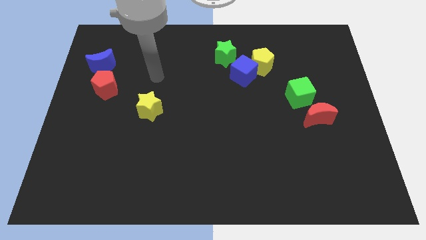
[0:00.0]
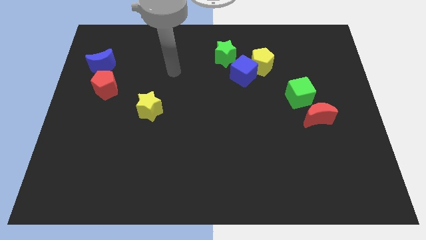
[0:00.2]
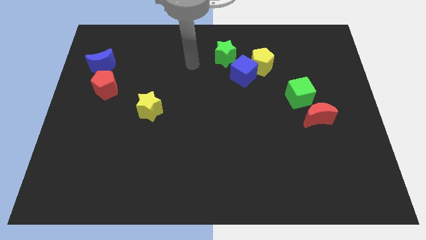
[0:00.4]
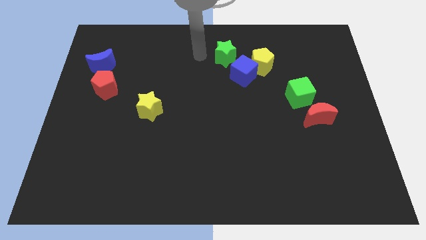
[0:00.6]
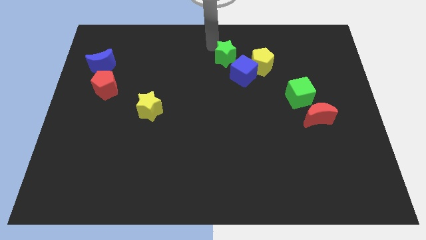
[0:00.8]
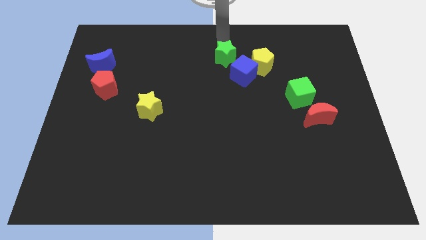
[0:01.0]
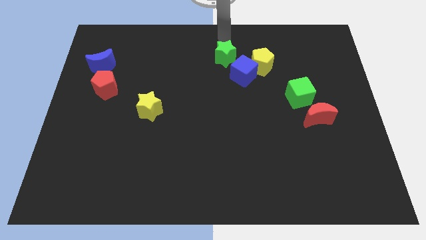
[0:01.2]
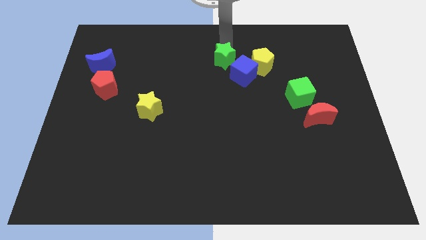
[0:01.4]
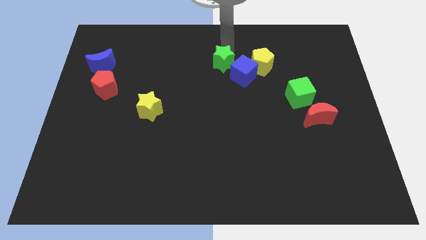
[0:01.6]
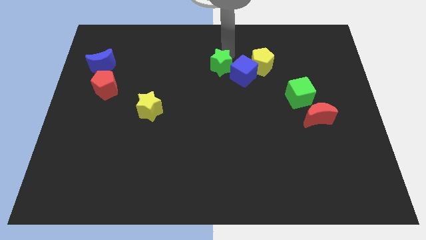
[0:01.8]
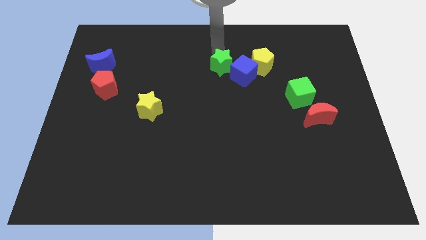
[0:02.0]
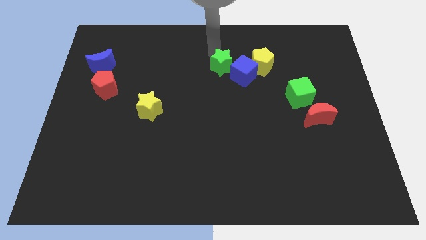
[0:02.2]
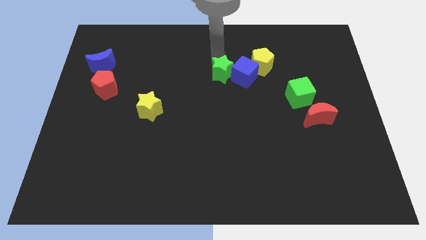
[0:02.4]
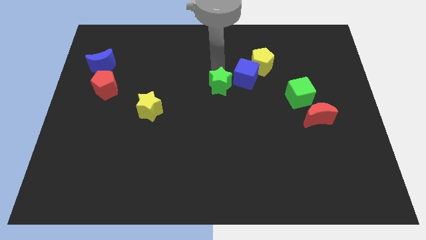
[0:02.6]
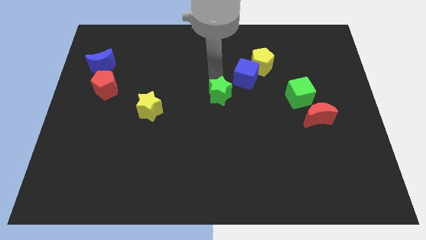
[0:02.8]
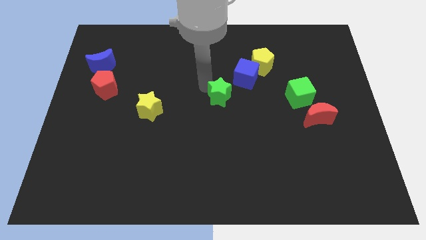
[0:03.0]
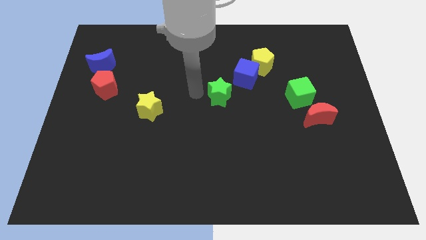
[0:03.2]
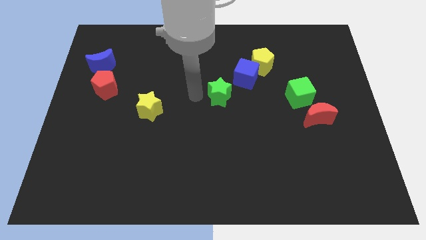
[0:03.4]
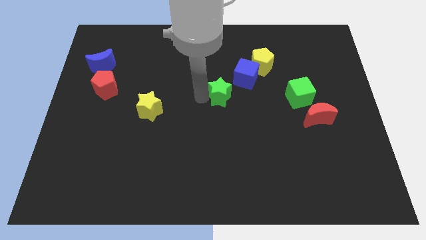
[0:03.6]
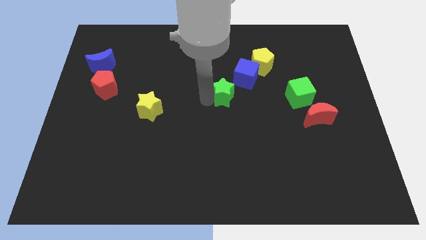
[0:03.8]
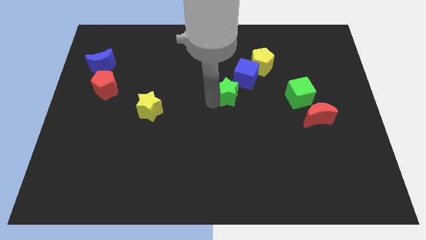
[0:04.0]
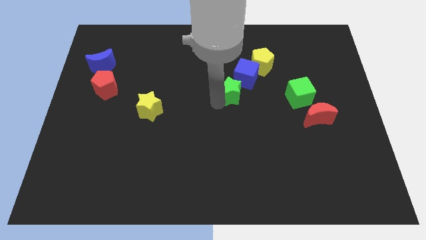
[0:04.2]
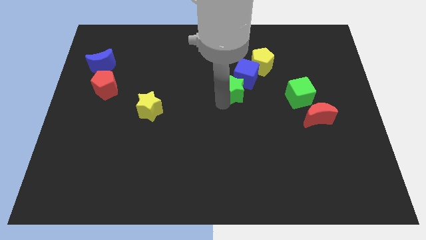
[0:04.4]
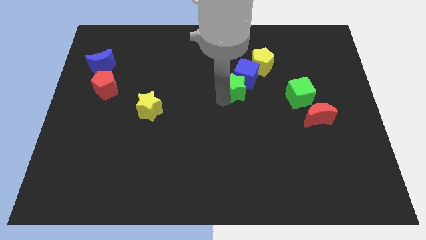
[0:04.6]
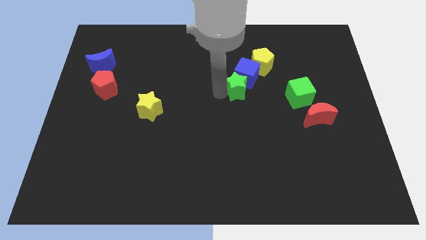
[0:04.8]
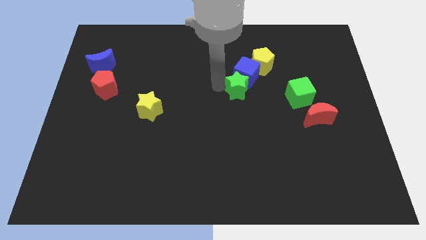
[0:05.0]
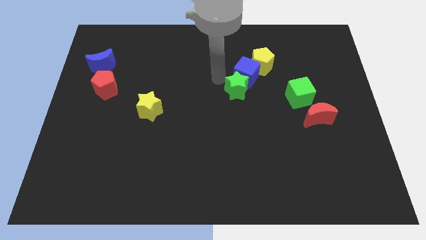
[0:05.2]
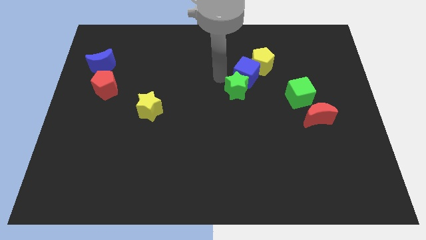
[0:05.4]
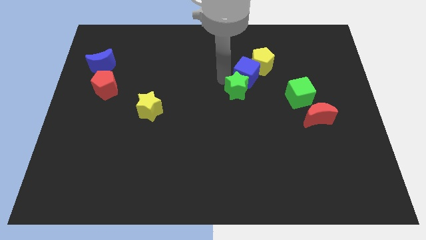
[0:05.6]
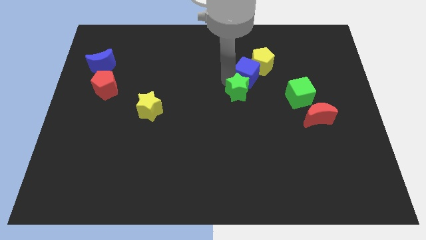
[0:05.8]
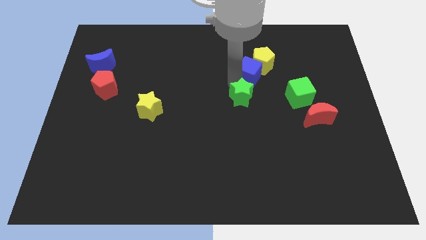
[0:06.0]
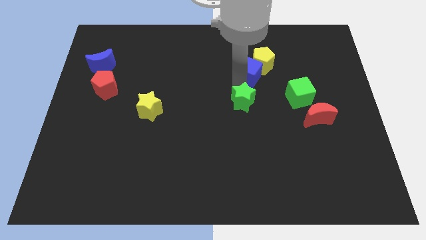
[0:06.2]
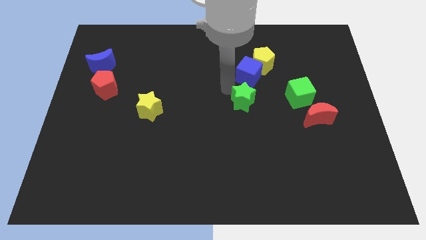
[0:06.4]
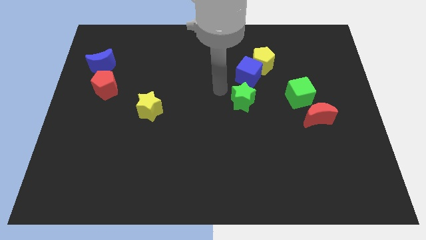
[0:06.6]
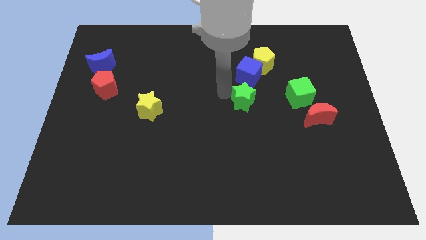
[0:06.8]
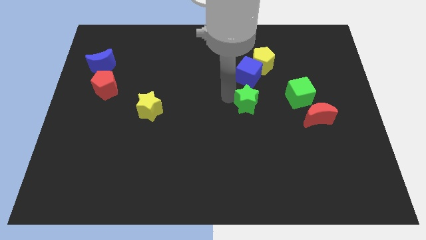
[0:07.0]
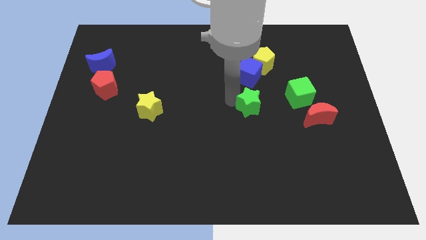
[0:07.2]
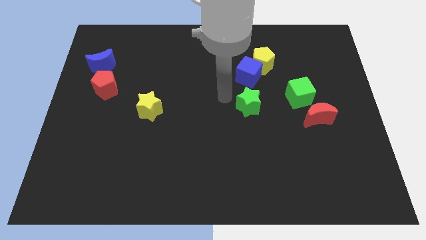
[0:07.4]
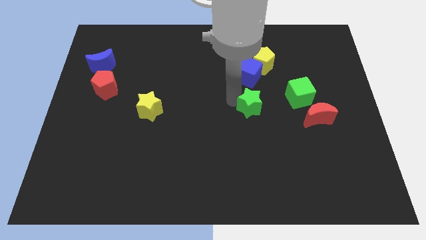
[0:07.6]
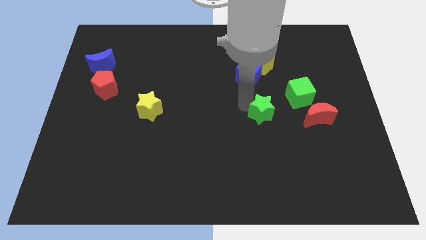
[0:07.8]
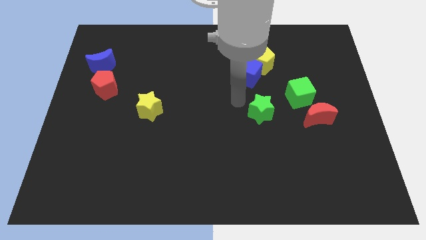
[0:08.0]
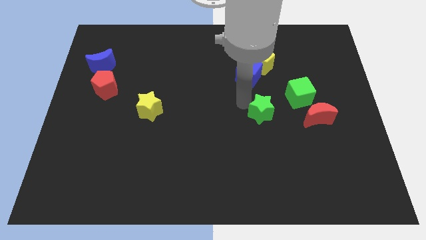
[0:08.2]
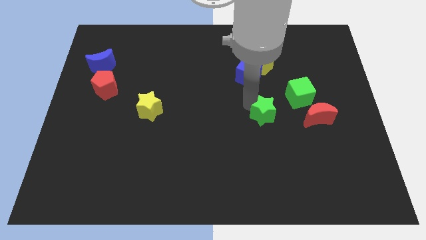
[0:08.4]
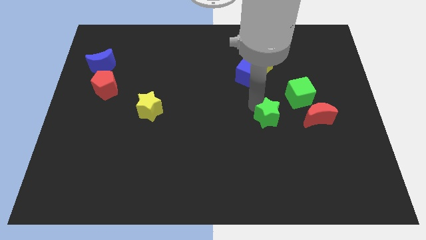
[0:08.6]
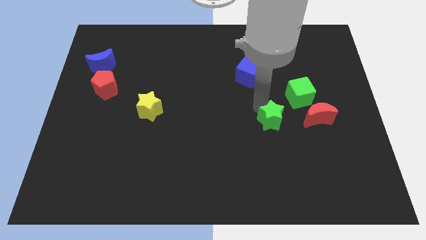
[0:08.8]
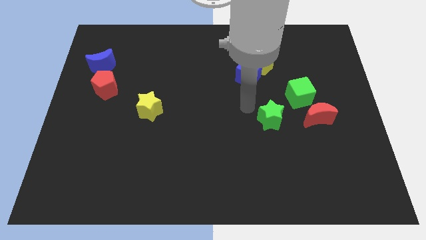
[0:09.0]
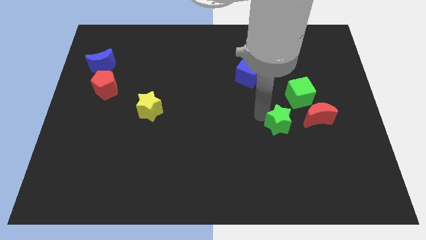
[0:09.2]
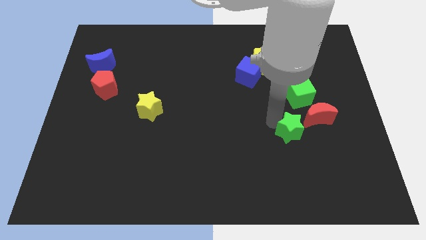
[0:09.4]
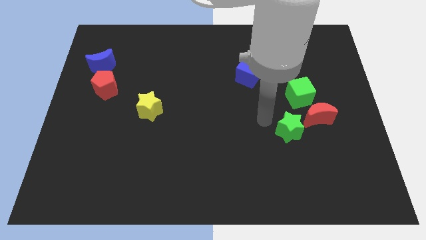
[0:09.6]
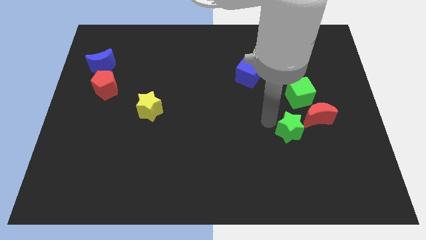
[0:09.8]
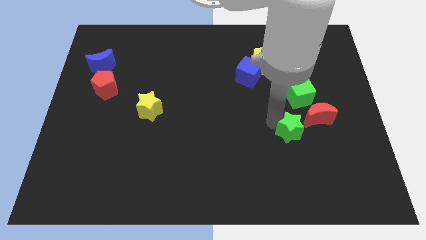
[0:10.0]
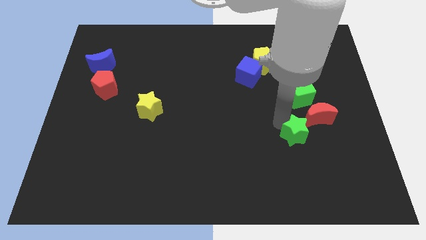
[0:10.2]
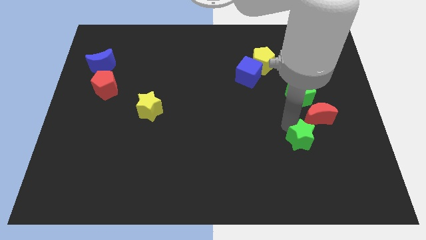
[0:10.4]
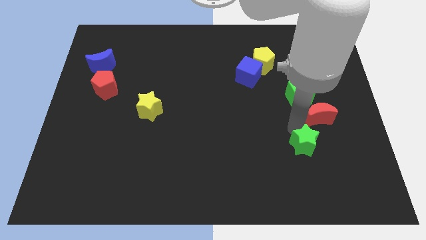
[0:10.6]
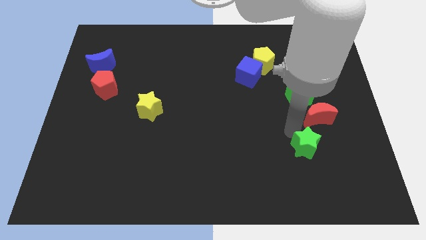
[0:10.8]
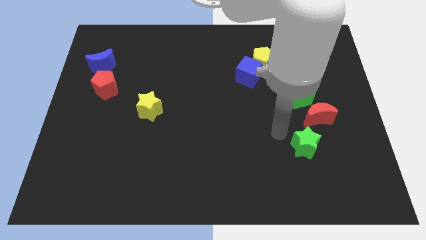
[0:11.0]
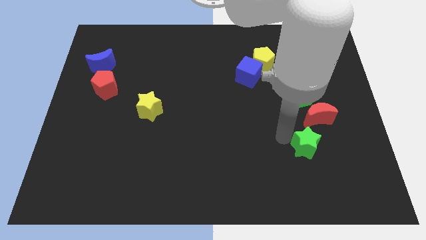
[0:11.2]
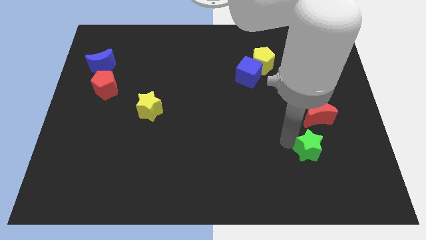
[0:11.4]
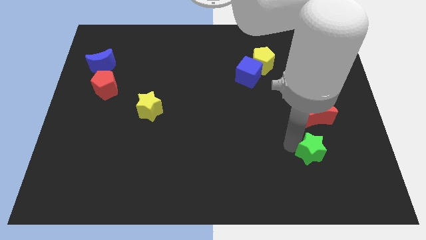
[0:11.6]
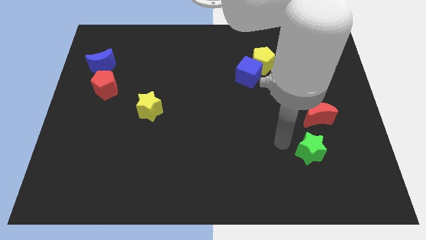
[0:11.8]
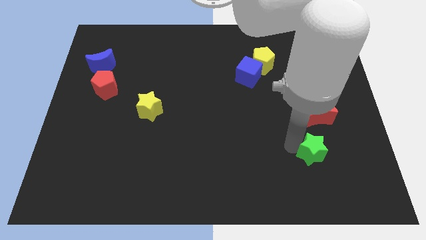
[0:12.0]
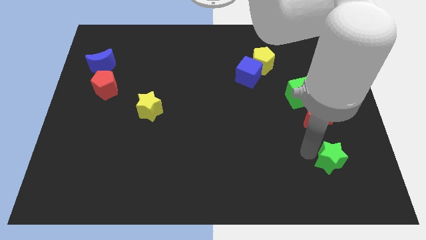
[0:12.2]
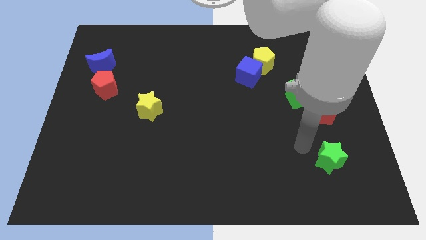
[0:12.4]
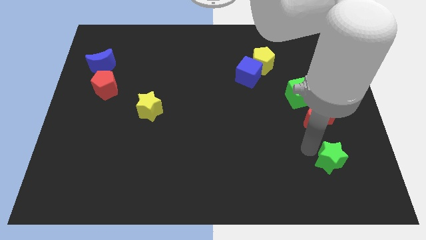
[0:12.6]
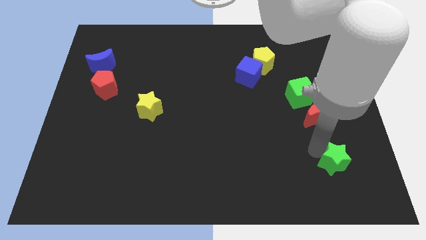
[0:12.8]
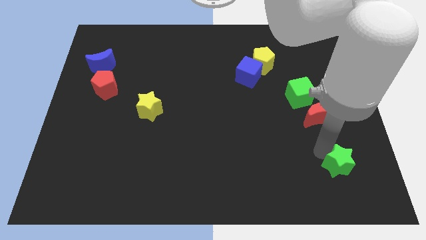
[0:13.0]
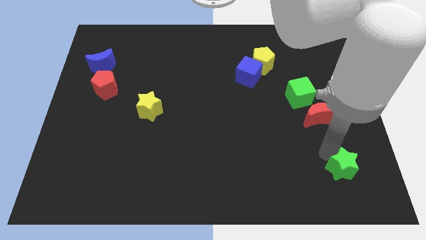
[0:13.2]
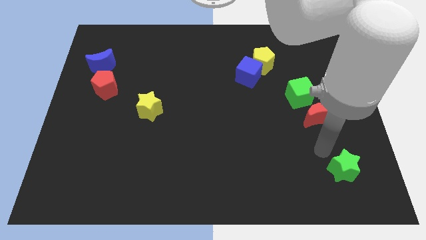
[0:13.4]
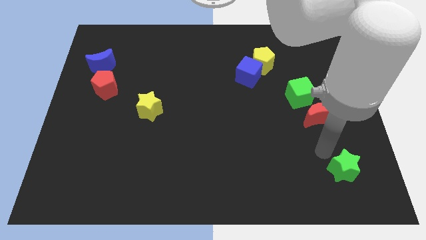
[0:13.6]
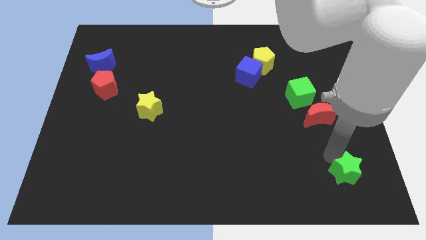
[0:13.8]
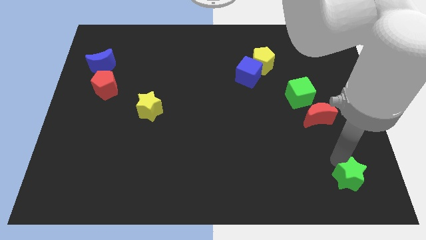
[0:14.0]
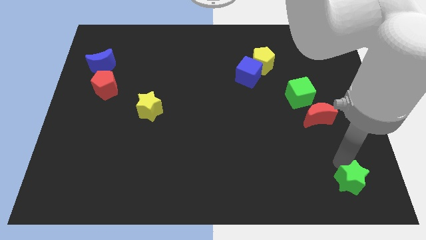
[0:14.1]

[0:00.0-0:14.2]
move the green star to the bottom right
